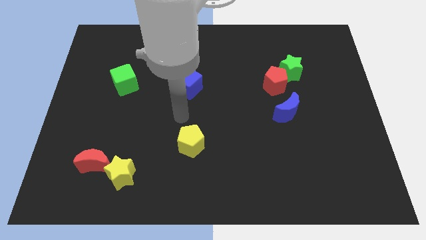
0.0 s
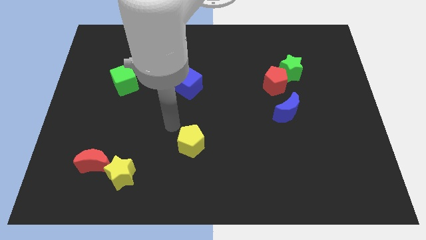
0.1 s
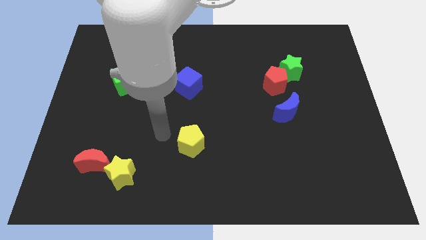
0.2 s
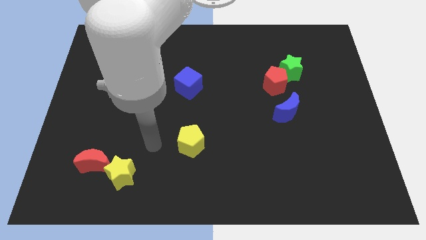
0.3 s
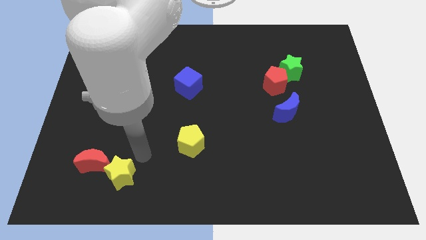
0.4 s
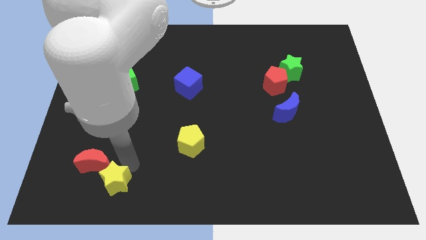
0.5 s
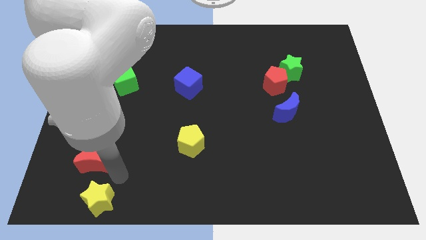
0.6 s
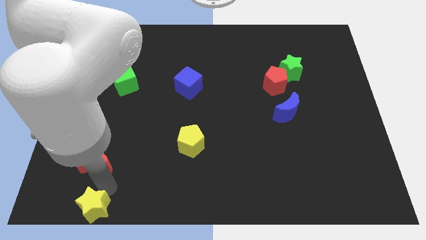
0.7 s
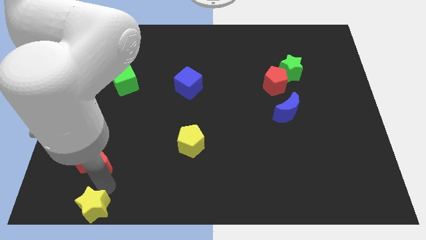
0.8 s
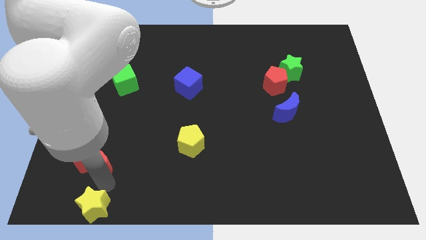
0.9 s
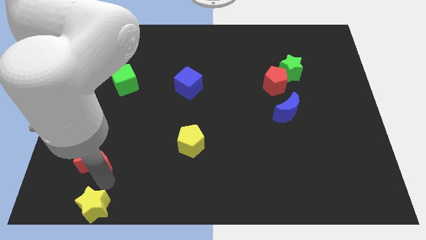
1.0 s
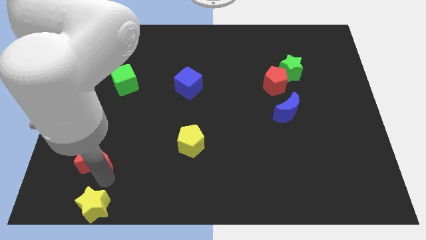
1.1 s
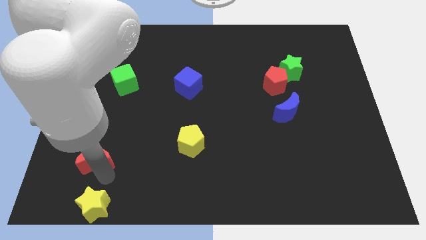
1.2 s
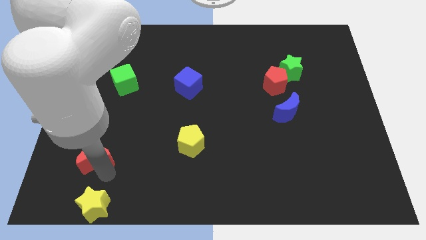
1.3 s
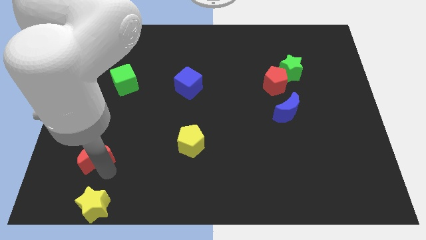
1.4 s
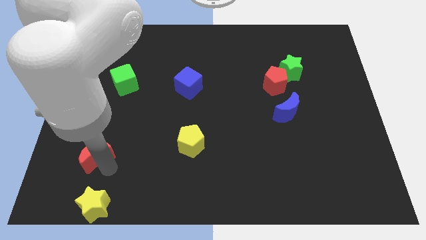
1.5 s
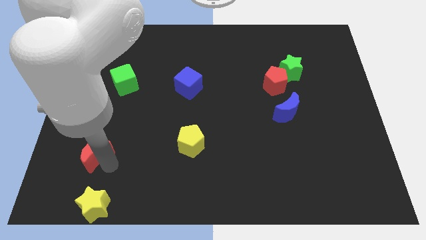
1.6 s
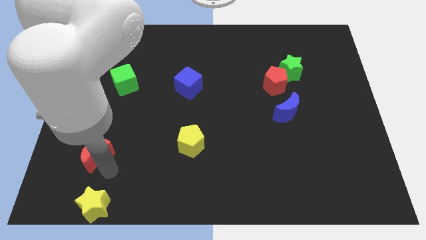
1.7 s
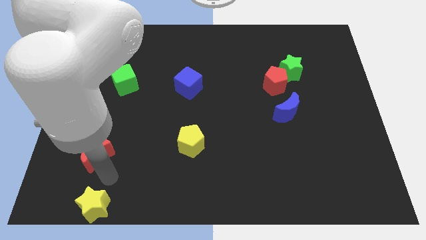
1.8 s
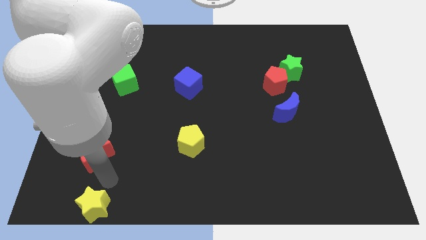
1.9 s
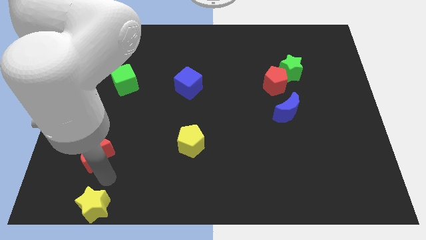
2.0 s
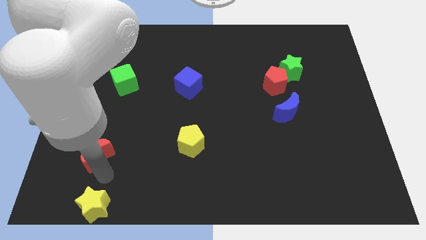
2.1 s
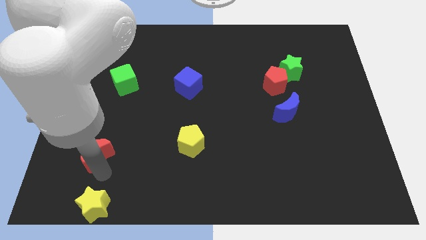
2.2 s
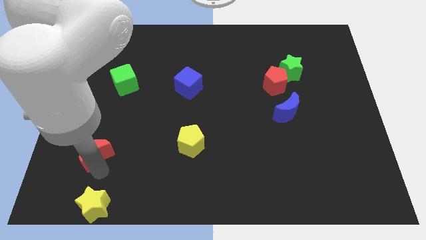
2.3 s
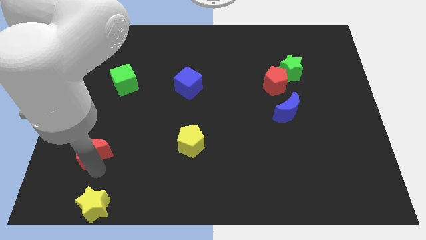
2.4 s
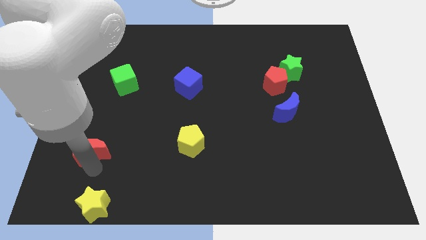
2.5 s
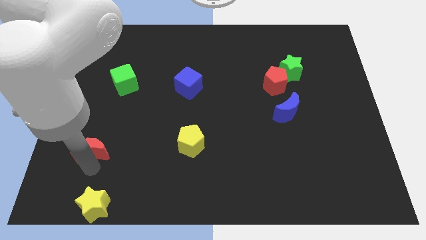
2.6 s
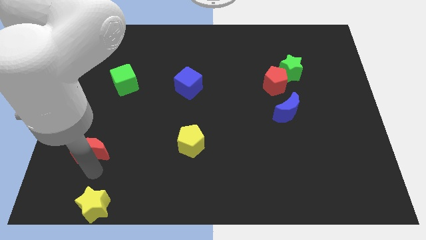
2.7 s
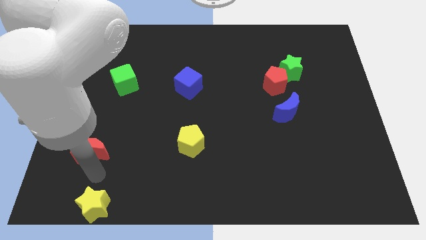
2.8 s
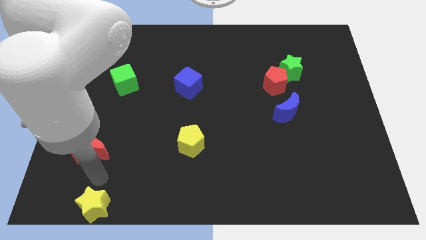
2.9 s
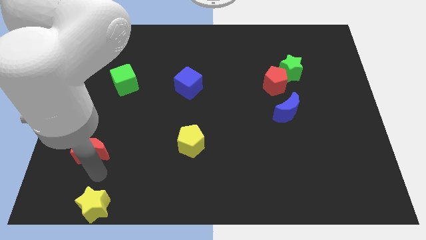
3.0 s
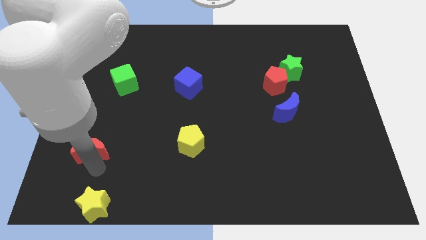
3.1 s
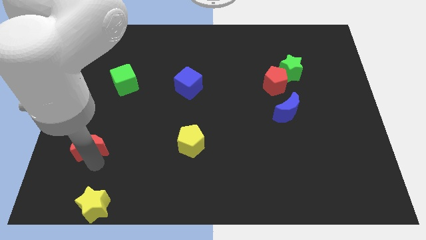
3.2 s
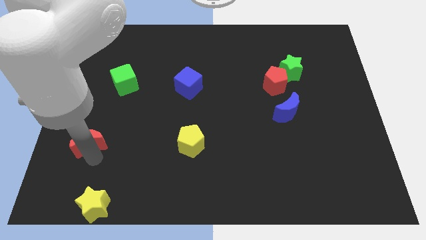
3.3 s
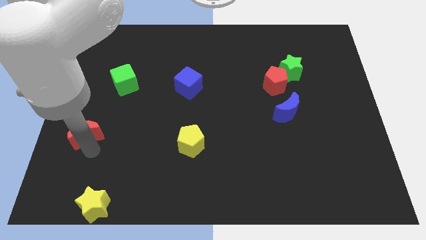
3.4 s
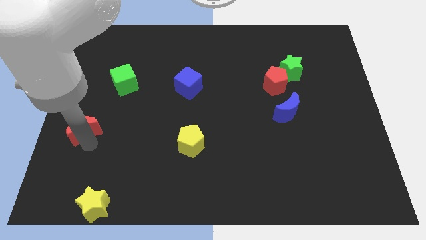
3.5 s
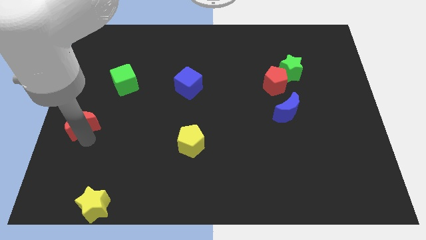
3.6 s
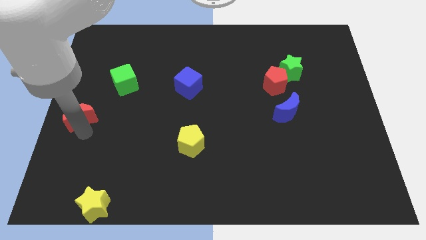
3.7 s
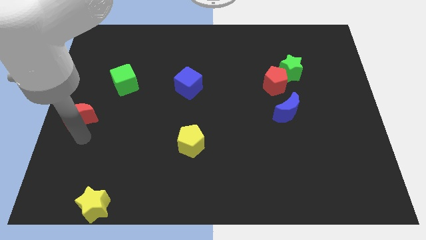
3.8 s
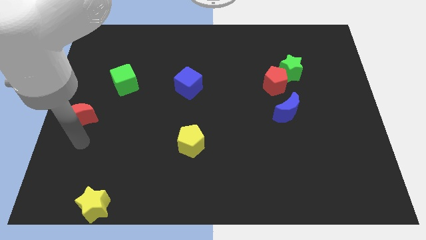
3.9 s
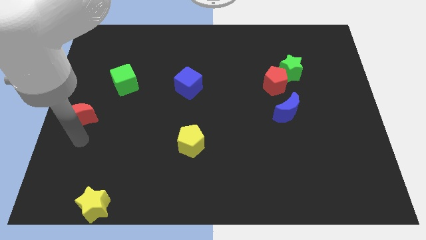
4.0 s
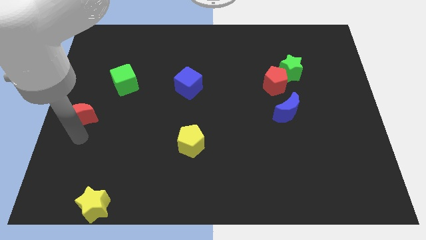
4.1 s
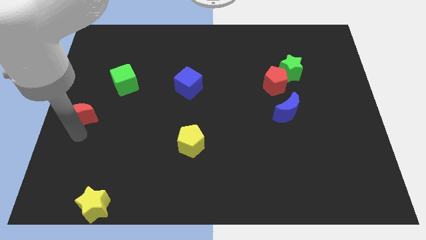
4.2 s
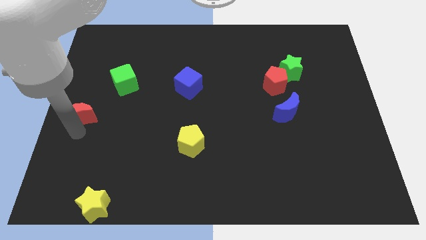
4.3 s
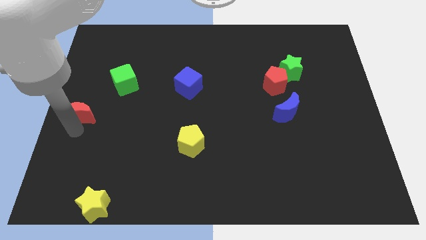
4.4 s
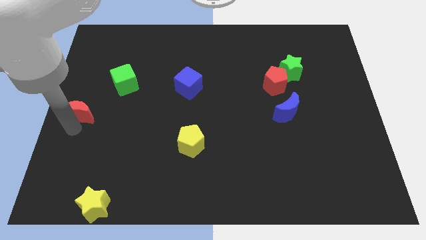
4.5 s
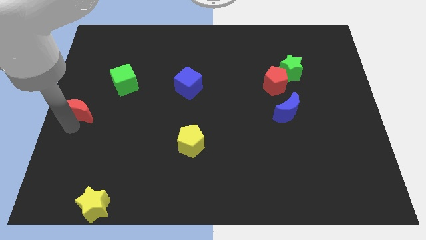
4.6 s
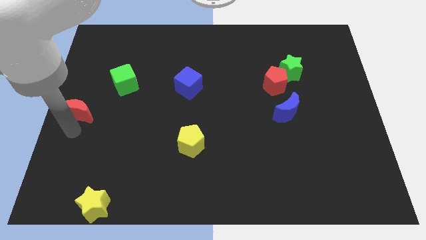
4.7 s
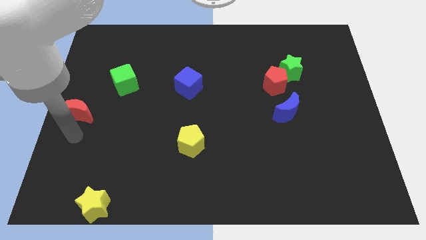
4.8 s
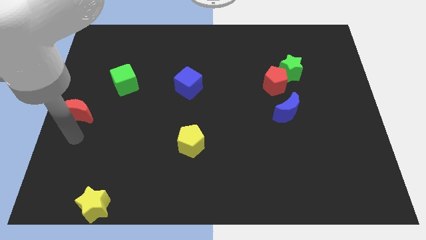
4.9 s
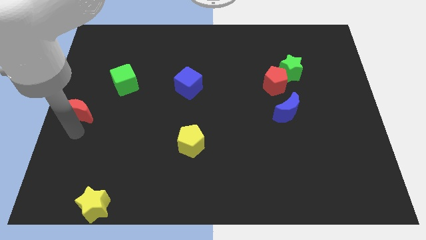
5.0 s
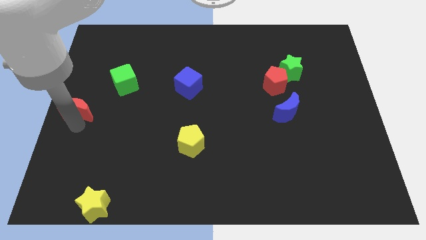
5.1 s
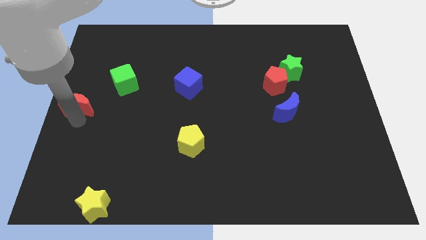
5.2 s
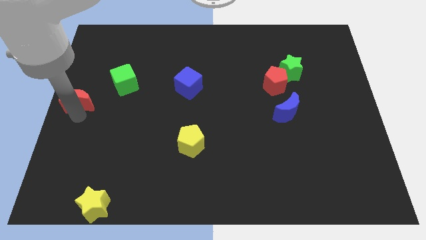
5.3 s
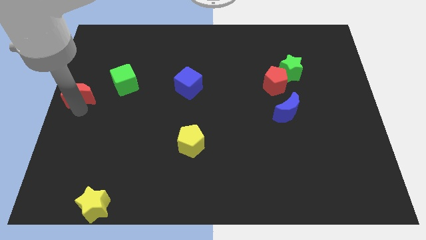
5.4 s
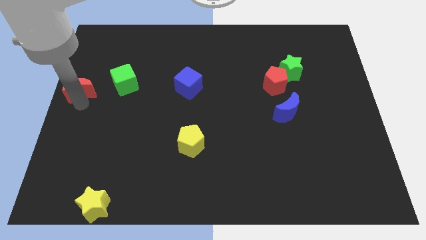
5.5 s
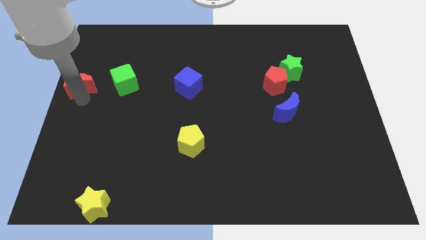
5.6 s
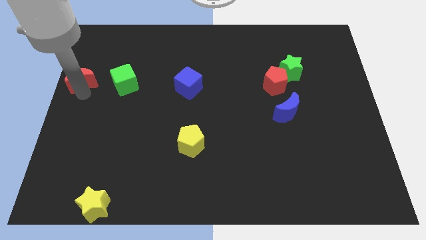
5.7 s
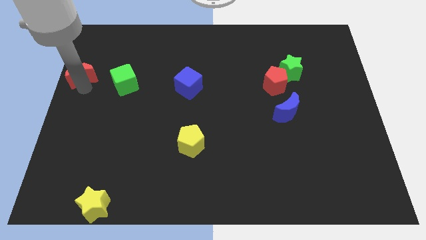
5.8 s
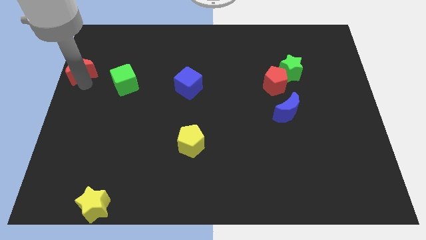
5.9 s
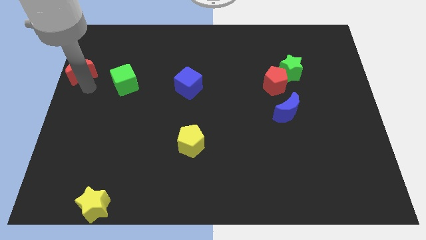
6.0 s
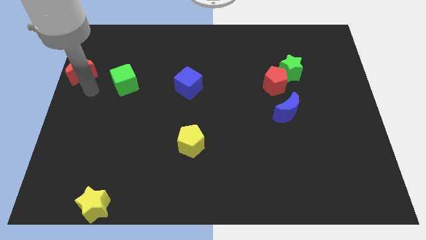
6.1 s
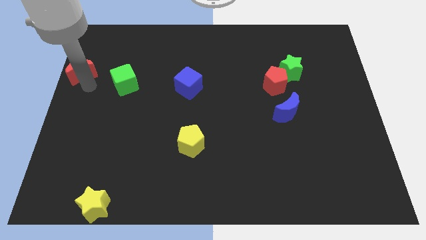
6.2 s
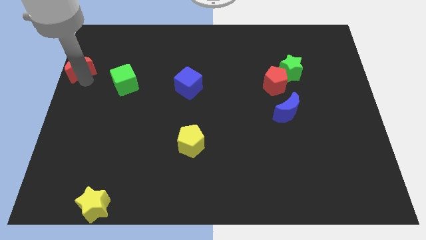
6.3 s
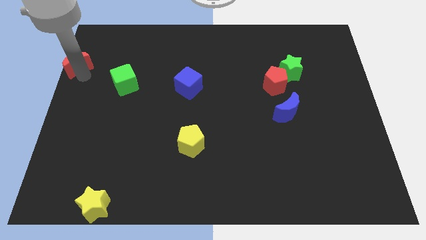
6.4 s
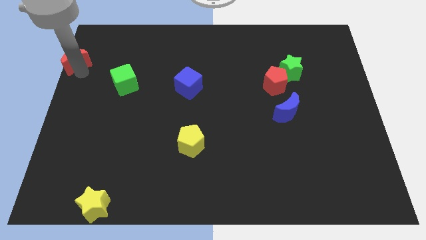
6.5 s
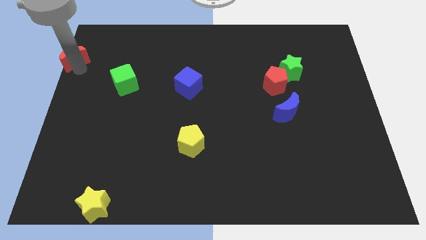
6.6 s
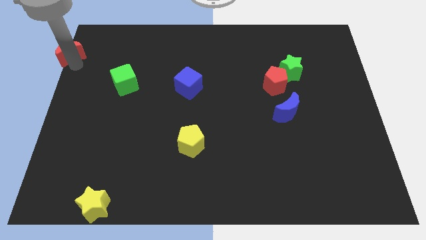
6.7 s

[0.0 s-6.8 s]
put the red moon to the upper left corner
